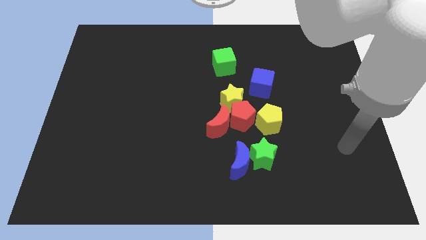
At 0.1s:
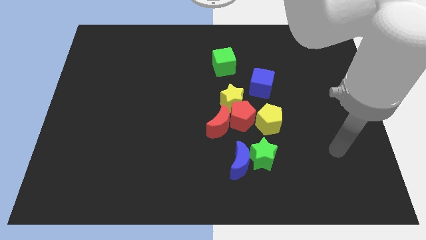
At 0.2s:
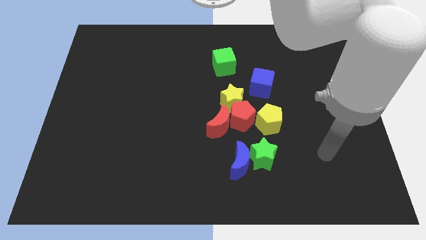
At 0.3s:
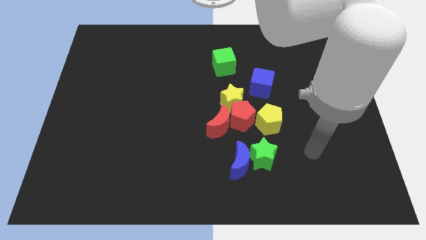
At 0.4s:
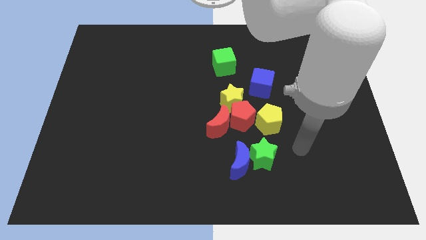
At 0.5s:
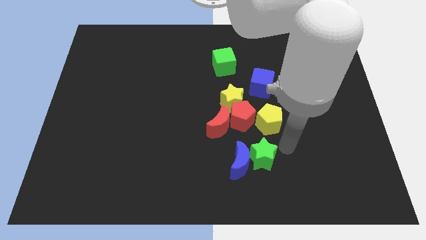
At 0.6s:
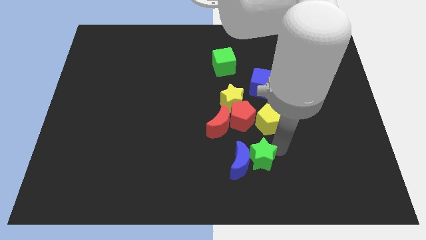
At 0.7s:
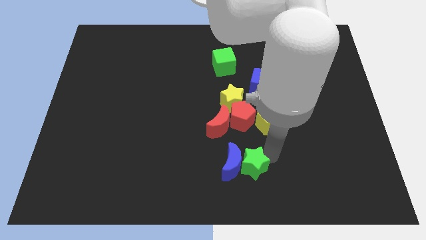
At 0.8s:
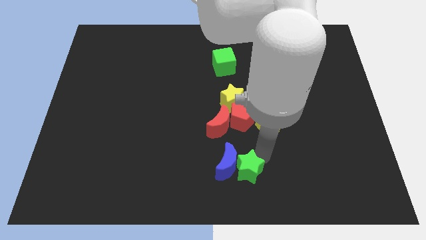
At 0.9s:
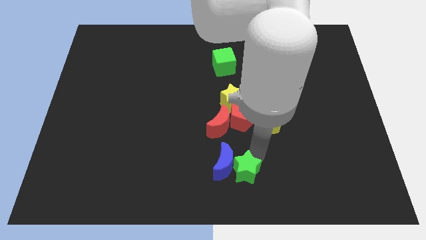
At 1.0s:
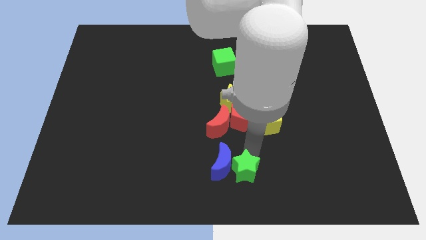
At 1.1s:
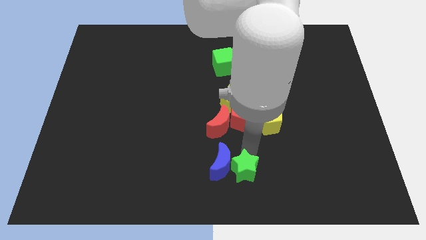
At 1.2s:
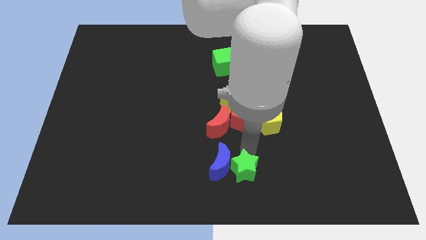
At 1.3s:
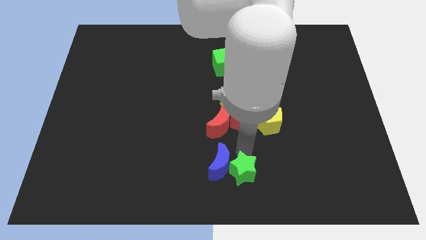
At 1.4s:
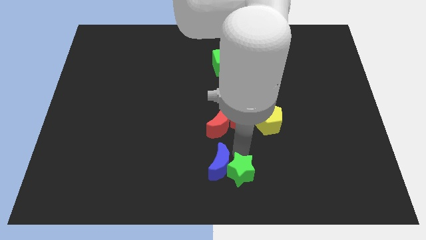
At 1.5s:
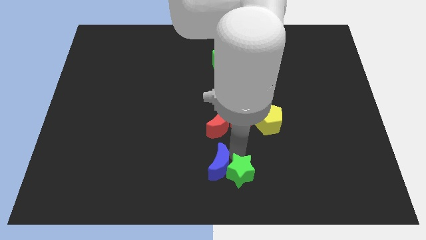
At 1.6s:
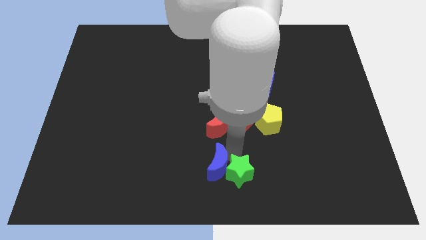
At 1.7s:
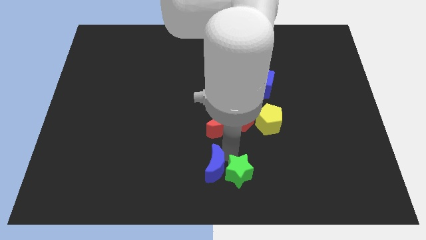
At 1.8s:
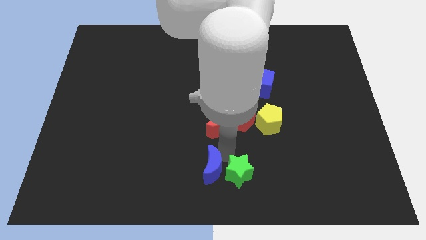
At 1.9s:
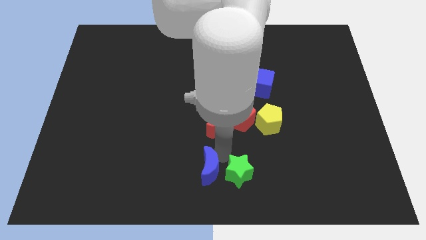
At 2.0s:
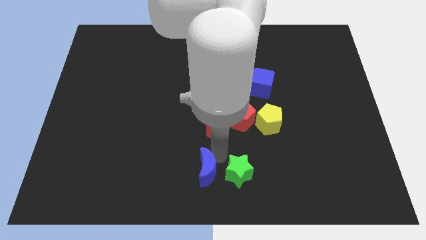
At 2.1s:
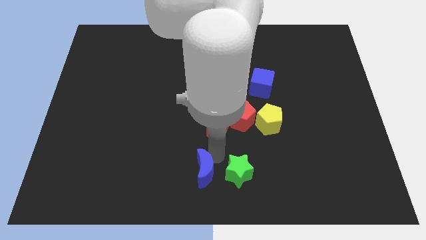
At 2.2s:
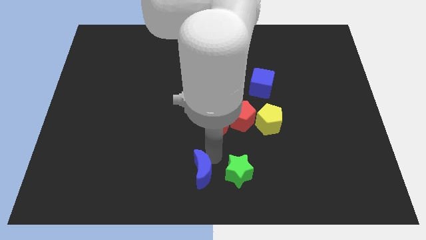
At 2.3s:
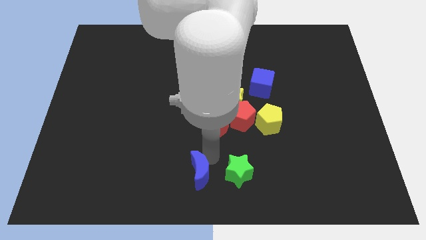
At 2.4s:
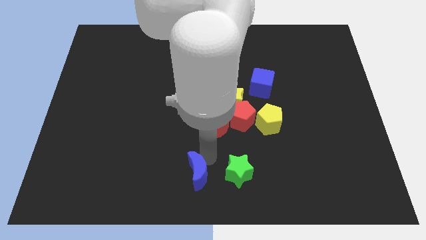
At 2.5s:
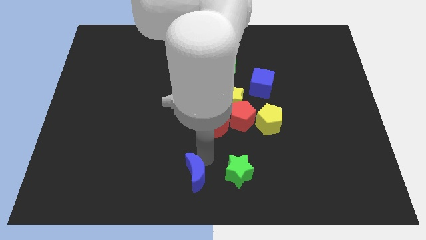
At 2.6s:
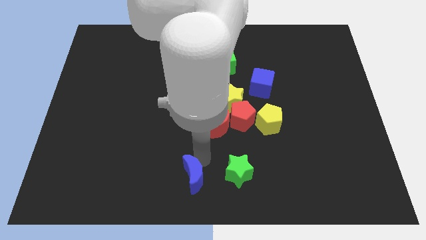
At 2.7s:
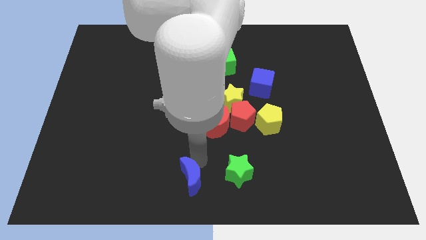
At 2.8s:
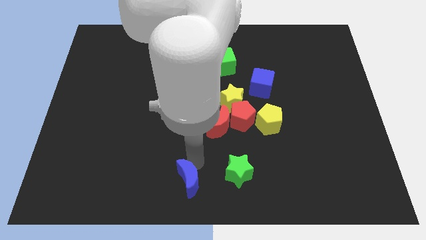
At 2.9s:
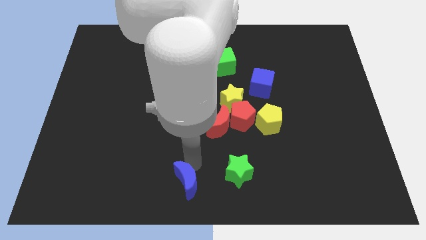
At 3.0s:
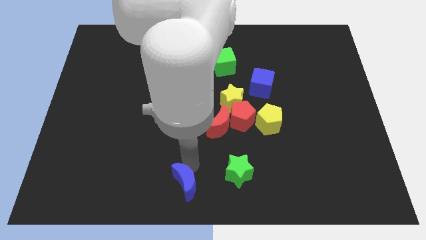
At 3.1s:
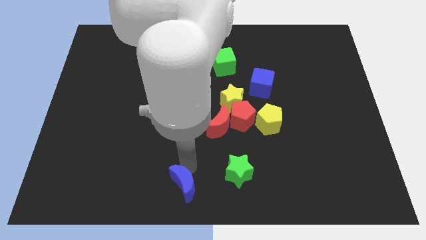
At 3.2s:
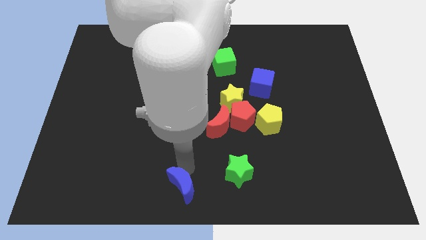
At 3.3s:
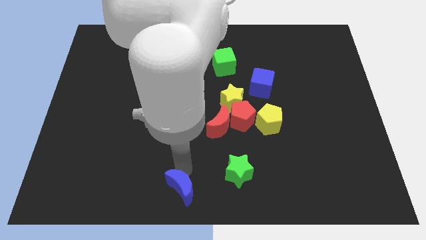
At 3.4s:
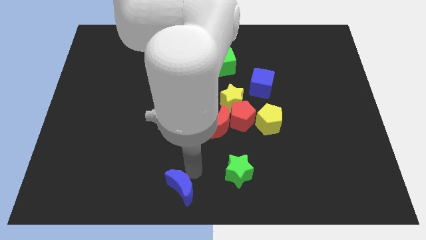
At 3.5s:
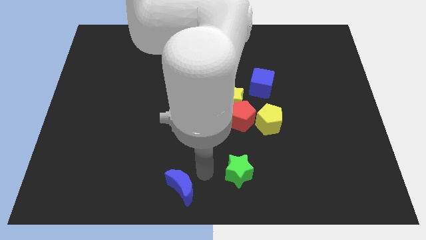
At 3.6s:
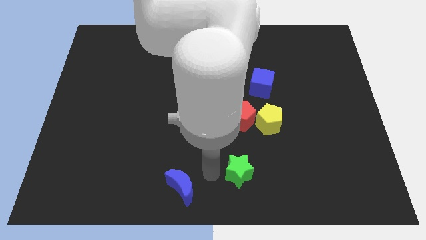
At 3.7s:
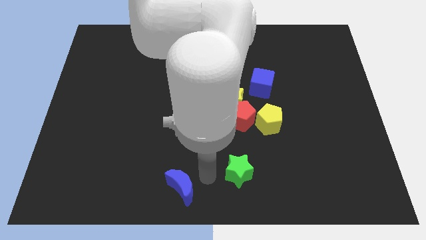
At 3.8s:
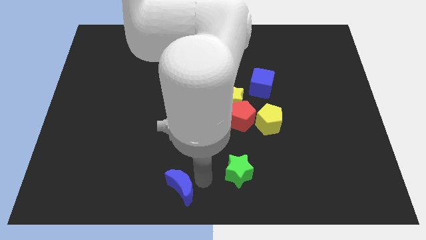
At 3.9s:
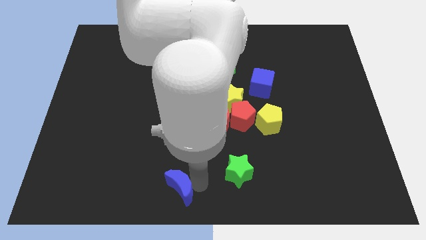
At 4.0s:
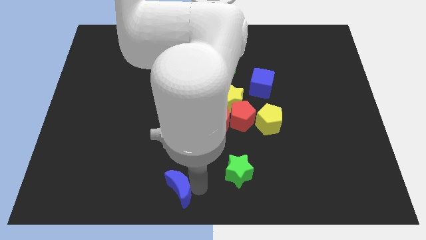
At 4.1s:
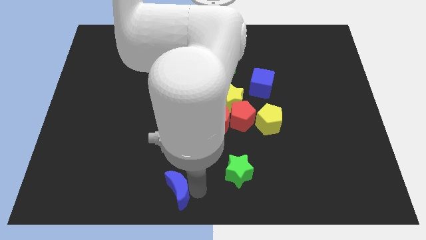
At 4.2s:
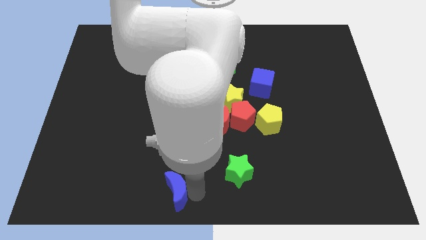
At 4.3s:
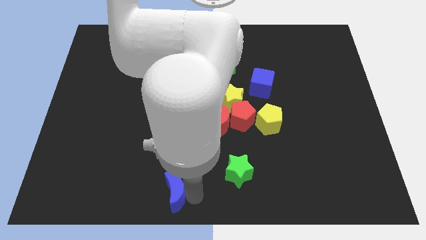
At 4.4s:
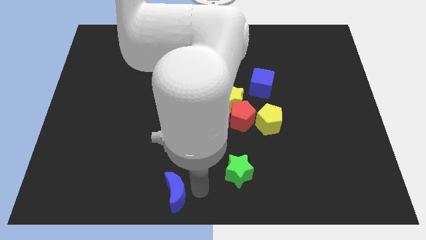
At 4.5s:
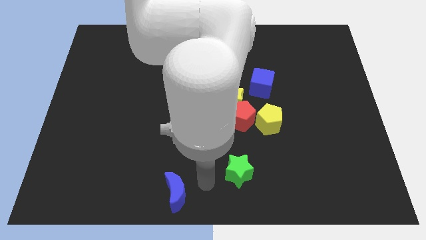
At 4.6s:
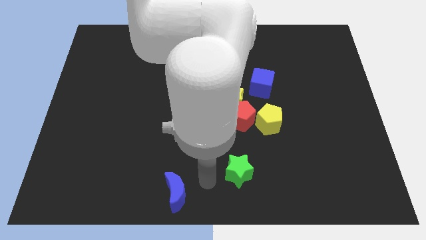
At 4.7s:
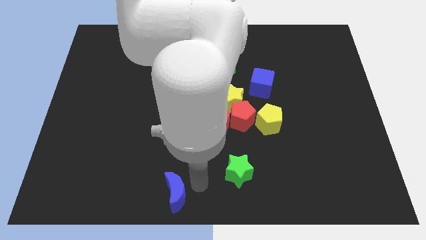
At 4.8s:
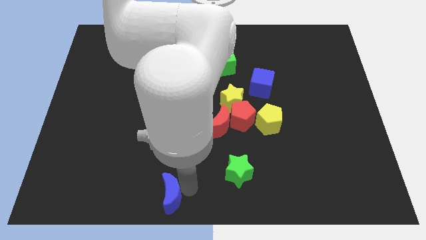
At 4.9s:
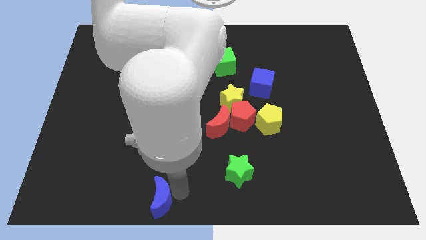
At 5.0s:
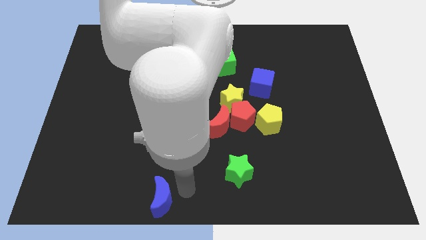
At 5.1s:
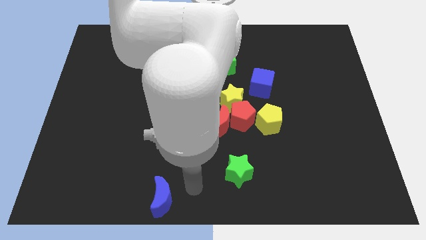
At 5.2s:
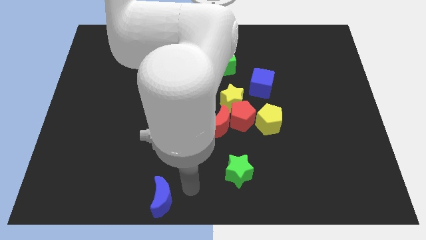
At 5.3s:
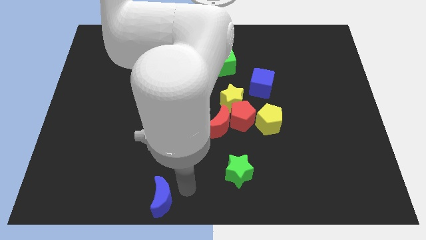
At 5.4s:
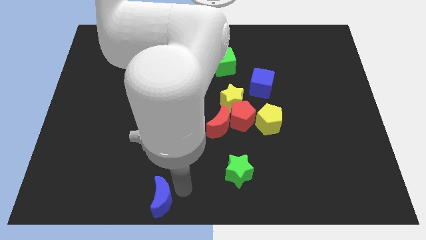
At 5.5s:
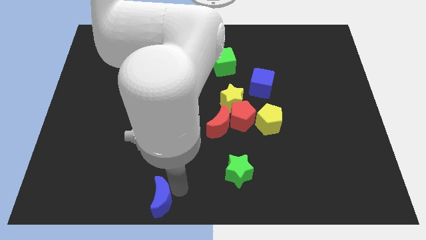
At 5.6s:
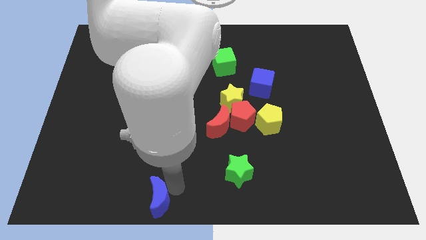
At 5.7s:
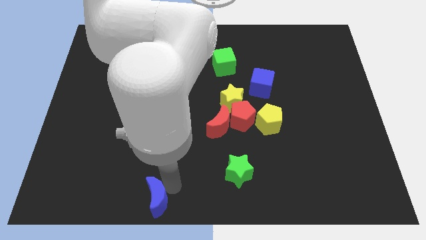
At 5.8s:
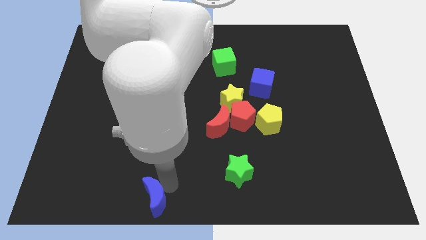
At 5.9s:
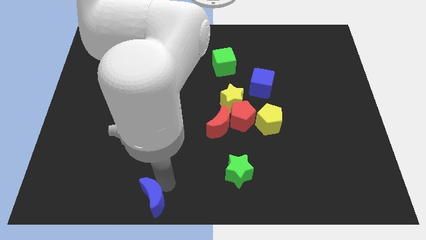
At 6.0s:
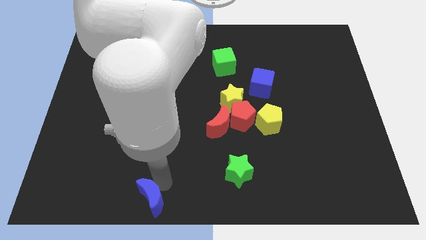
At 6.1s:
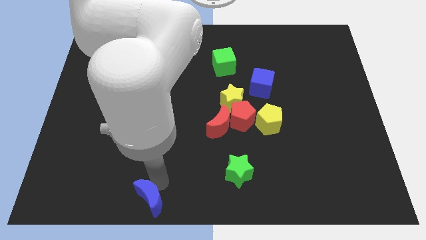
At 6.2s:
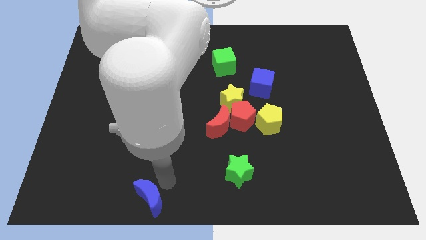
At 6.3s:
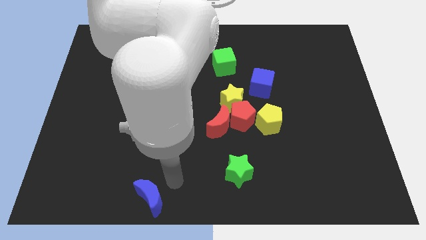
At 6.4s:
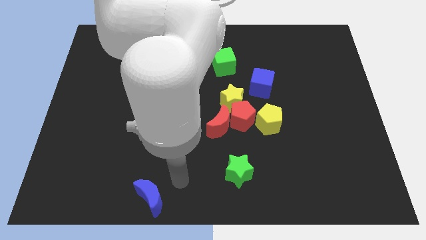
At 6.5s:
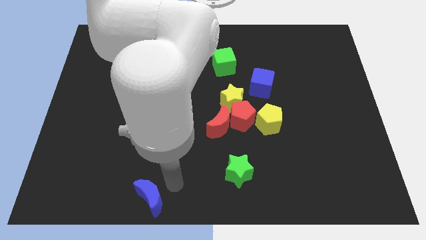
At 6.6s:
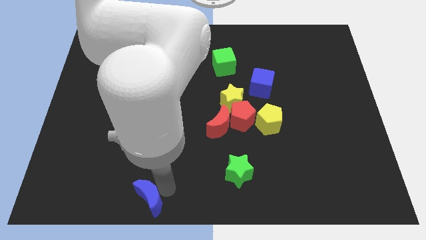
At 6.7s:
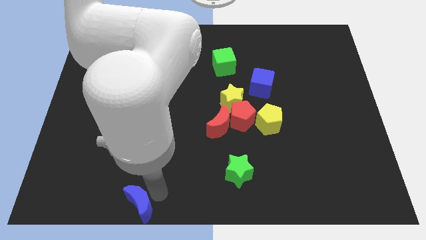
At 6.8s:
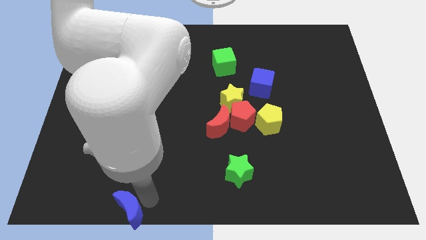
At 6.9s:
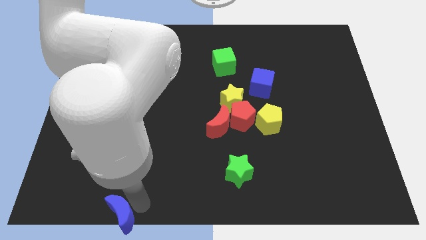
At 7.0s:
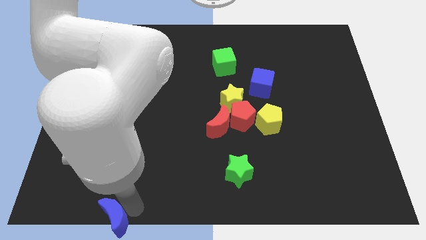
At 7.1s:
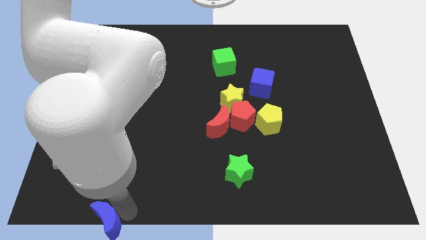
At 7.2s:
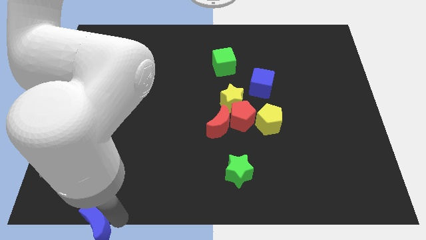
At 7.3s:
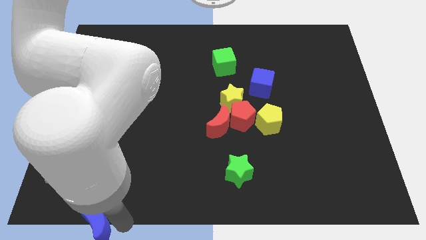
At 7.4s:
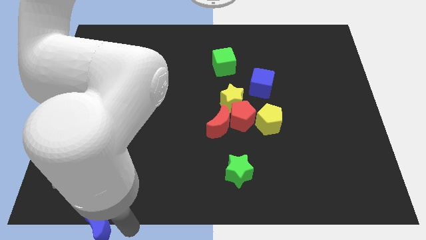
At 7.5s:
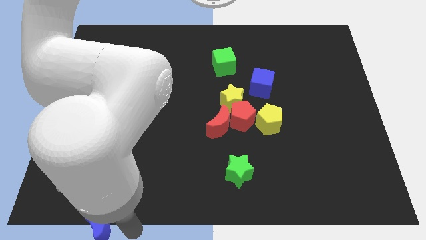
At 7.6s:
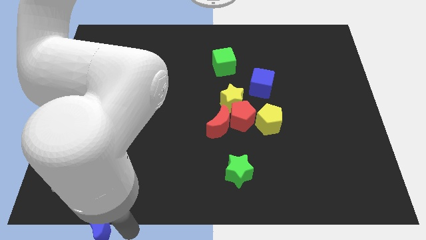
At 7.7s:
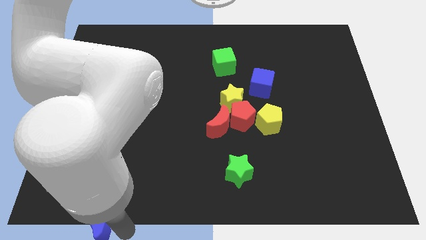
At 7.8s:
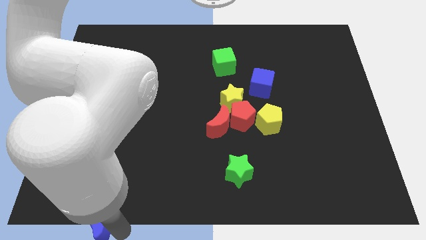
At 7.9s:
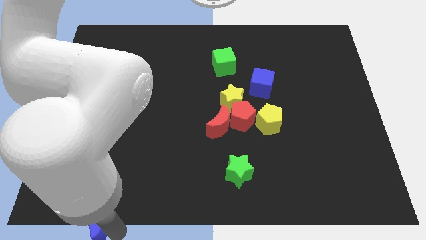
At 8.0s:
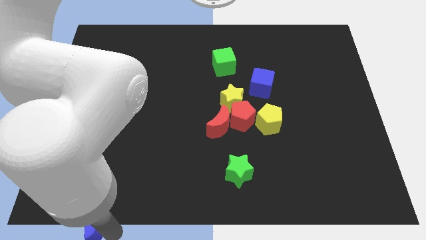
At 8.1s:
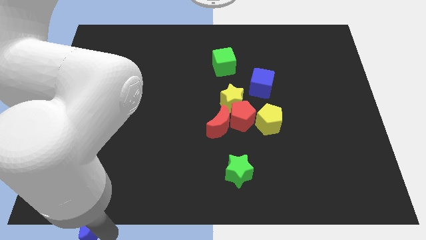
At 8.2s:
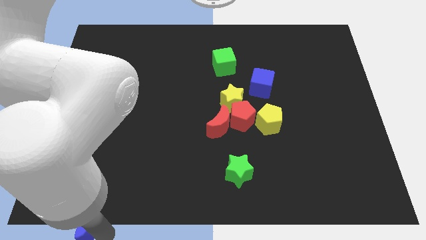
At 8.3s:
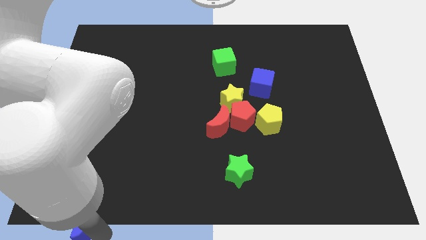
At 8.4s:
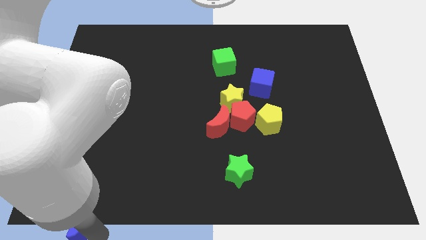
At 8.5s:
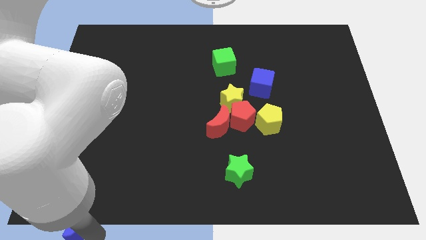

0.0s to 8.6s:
move the blue moon to the bottom left corner
